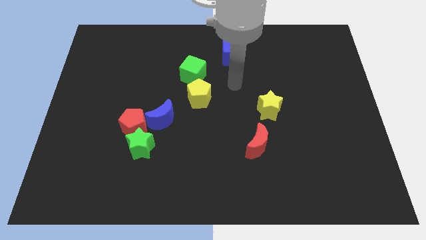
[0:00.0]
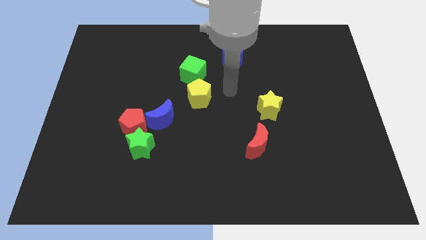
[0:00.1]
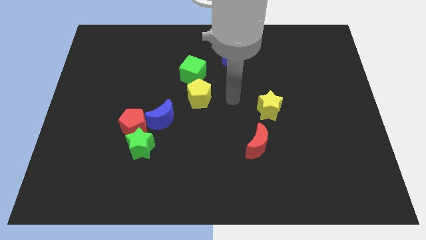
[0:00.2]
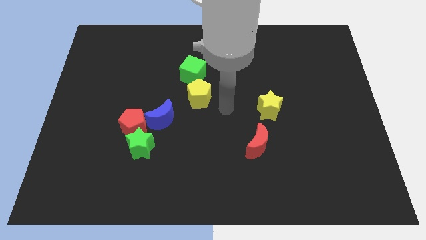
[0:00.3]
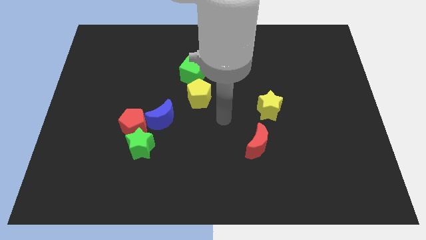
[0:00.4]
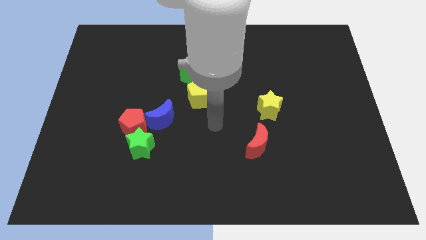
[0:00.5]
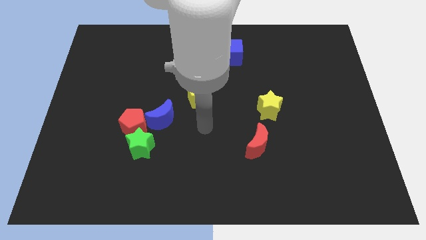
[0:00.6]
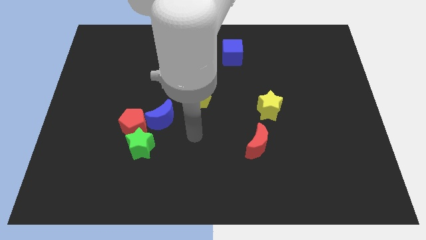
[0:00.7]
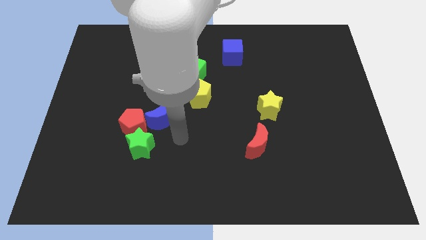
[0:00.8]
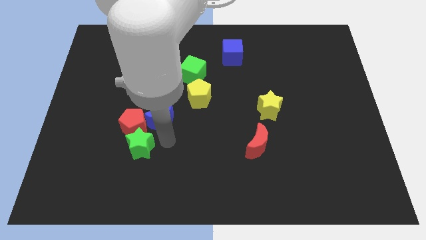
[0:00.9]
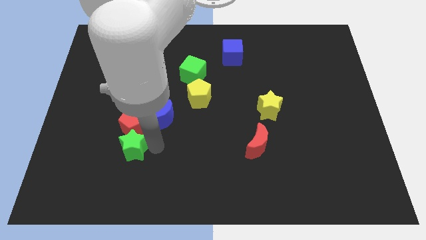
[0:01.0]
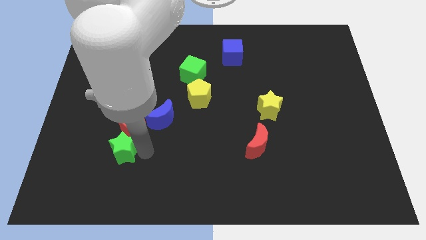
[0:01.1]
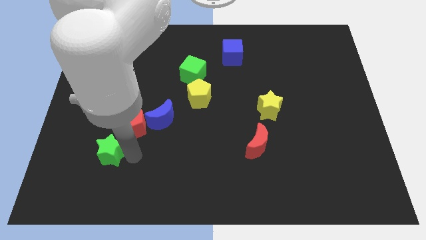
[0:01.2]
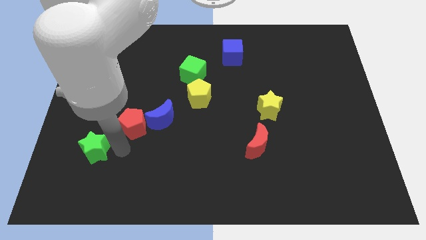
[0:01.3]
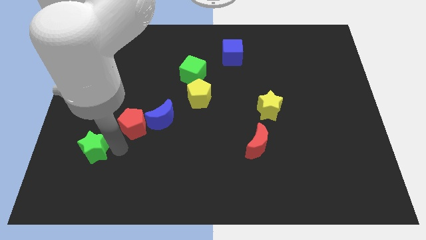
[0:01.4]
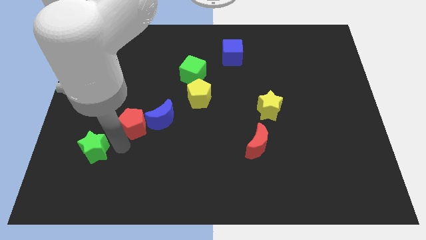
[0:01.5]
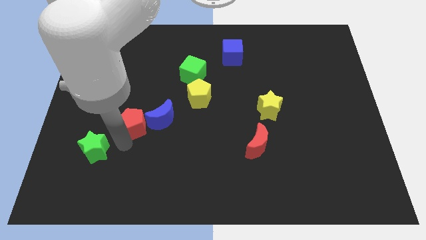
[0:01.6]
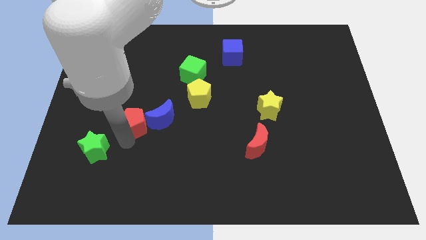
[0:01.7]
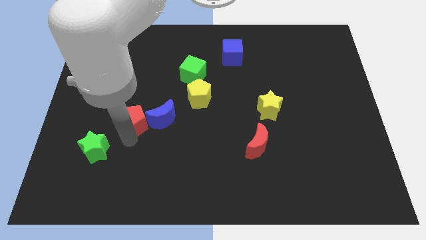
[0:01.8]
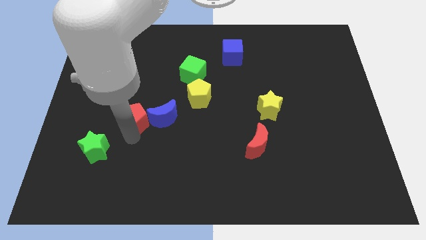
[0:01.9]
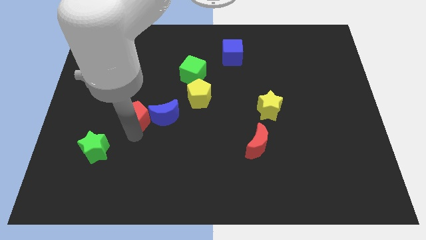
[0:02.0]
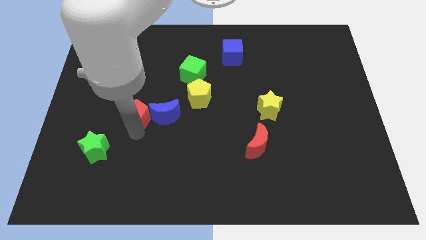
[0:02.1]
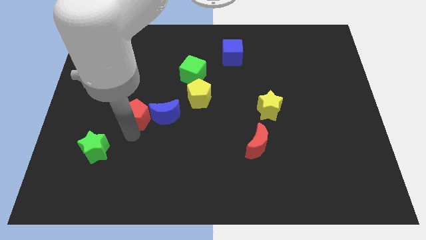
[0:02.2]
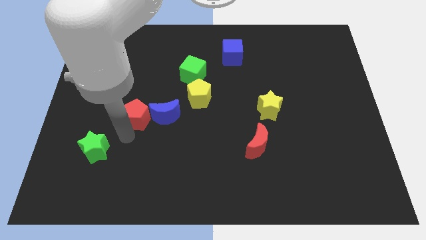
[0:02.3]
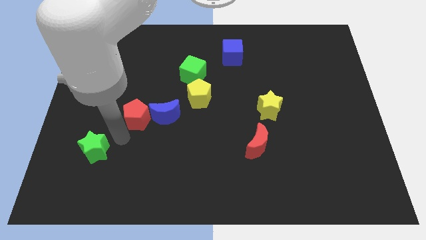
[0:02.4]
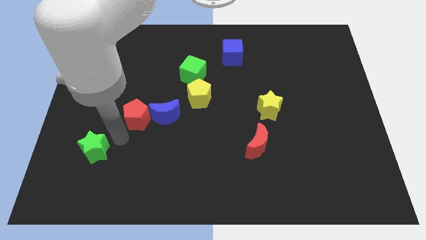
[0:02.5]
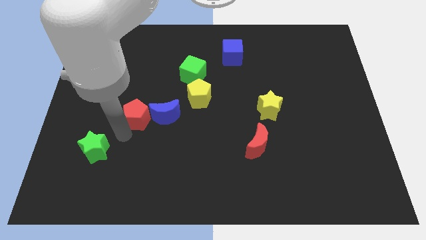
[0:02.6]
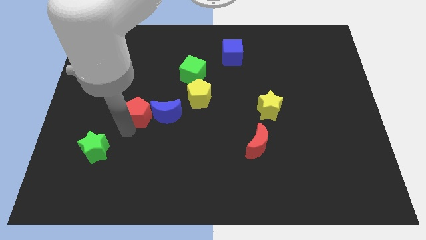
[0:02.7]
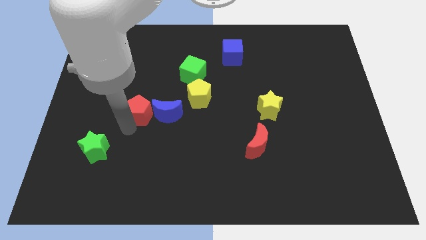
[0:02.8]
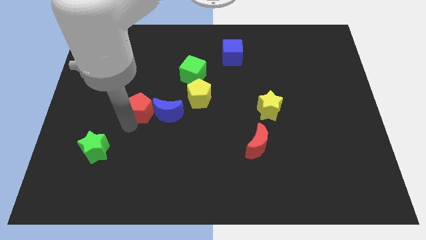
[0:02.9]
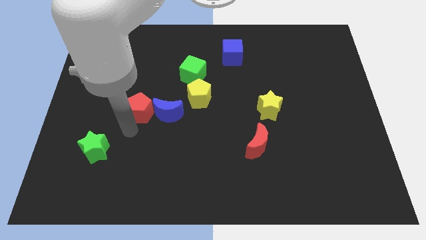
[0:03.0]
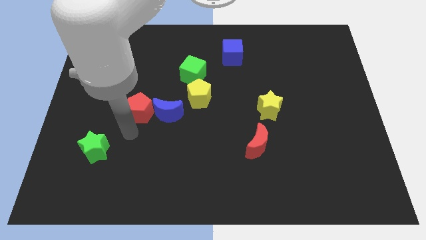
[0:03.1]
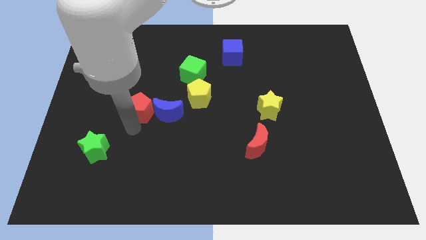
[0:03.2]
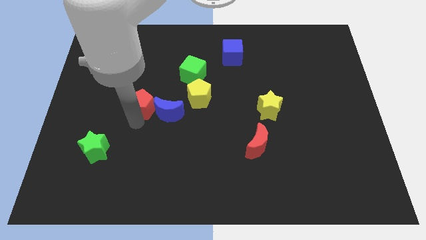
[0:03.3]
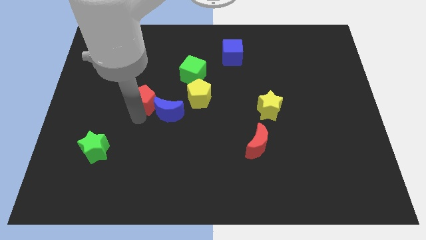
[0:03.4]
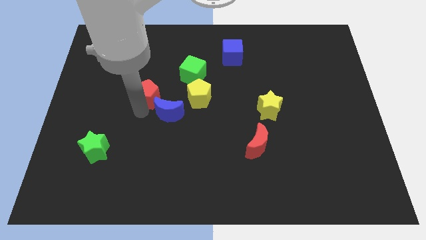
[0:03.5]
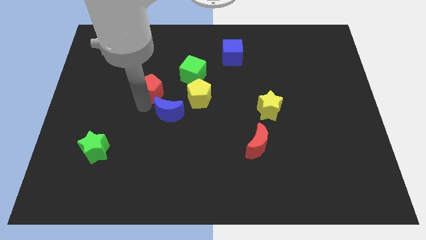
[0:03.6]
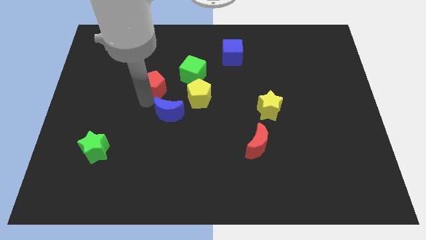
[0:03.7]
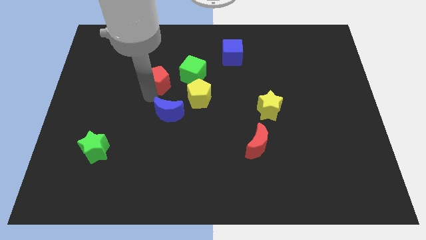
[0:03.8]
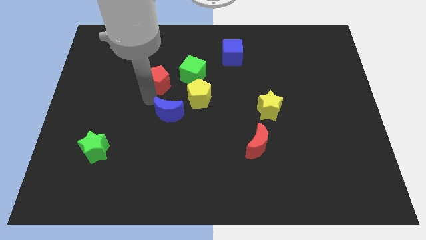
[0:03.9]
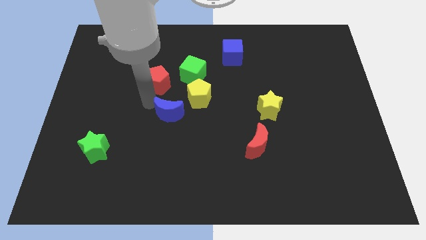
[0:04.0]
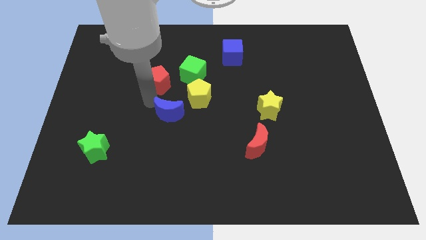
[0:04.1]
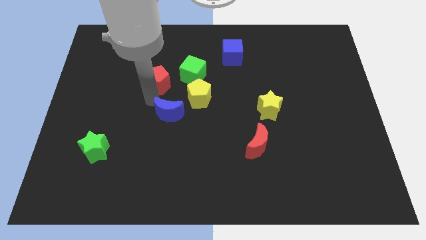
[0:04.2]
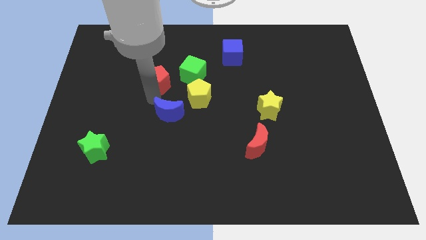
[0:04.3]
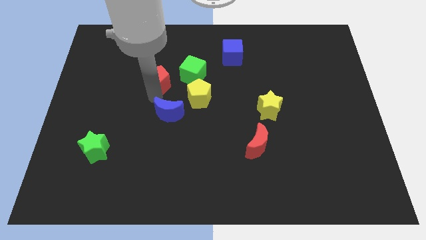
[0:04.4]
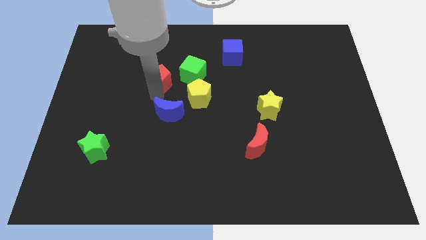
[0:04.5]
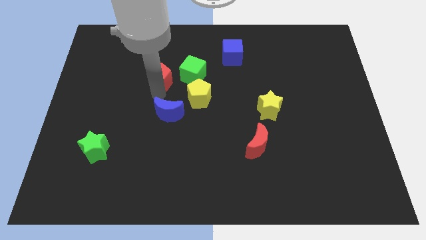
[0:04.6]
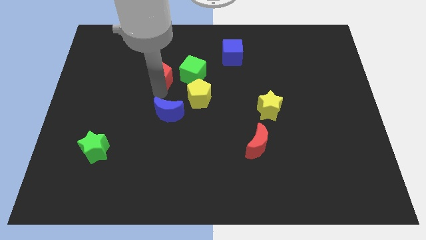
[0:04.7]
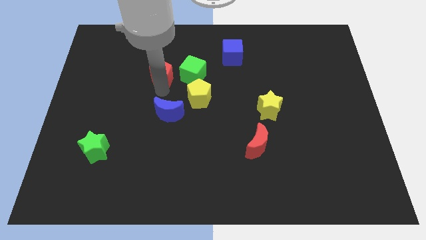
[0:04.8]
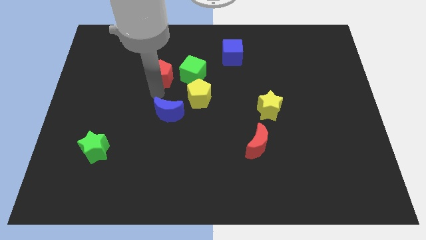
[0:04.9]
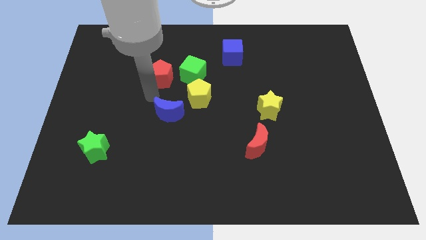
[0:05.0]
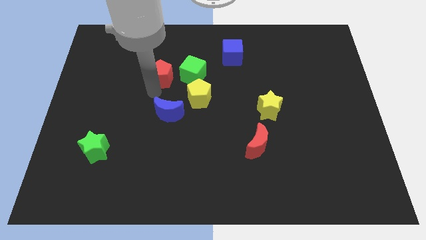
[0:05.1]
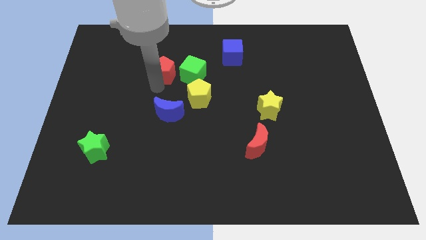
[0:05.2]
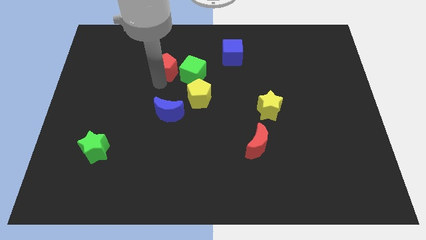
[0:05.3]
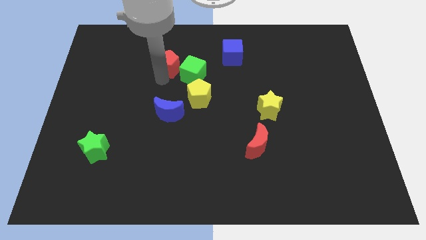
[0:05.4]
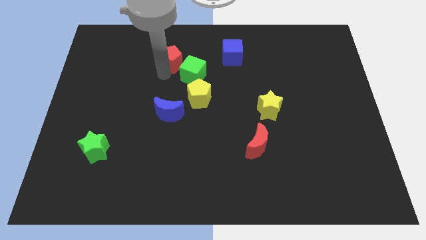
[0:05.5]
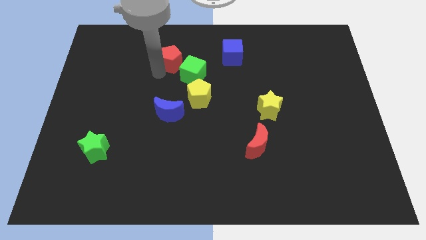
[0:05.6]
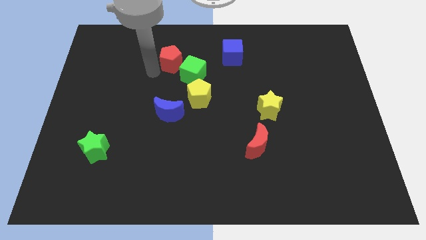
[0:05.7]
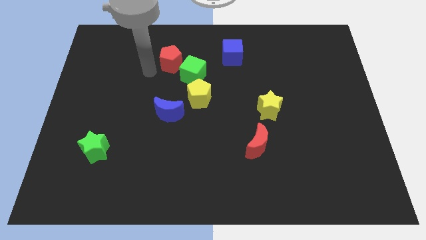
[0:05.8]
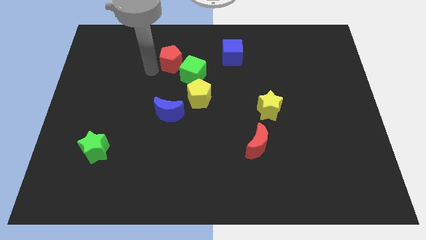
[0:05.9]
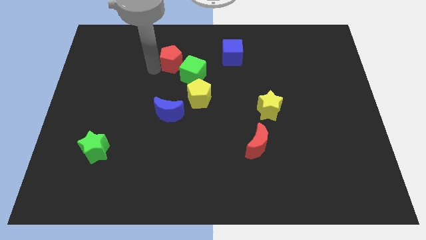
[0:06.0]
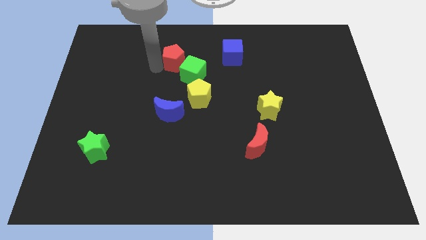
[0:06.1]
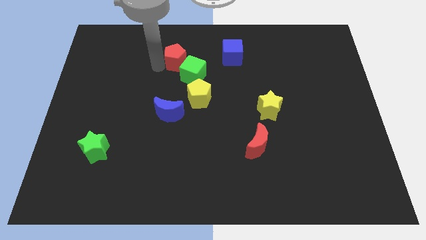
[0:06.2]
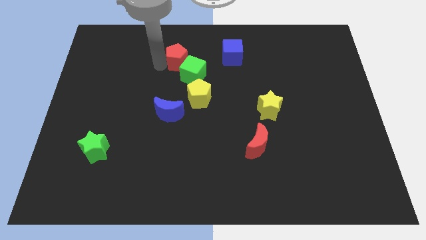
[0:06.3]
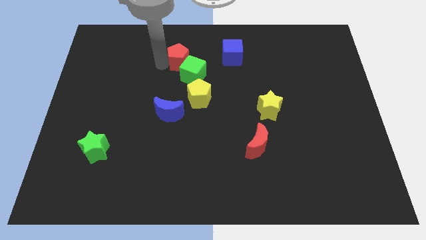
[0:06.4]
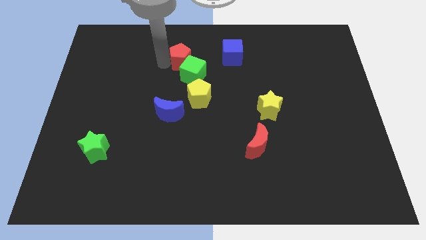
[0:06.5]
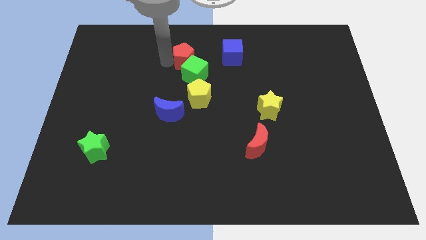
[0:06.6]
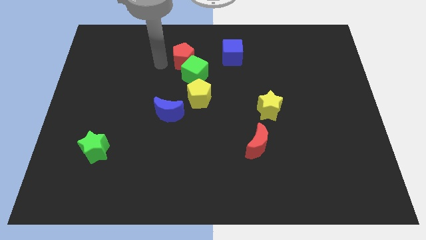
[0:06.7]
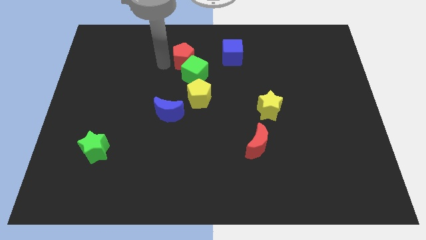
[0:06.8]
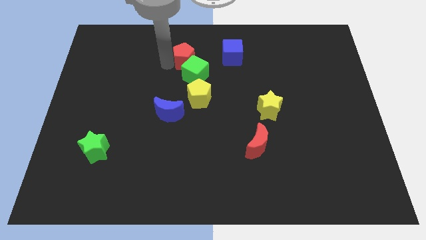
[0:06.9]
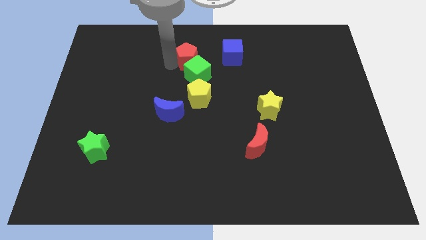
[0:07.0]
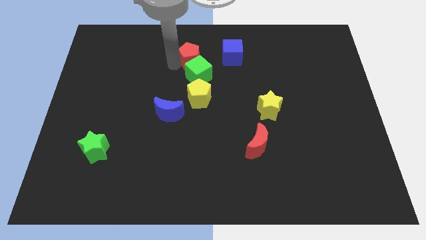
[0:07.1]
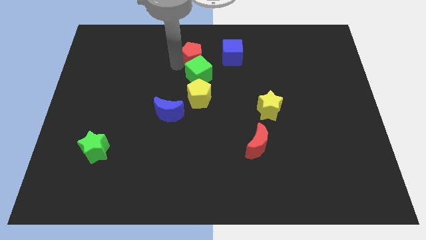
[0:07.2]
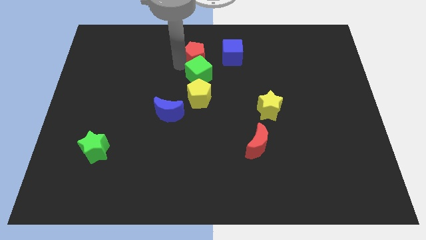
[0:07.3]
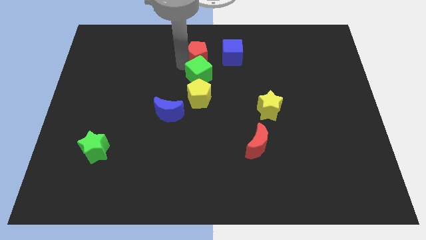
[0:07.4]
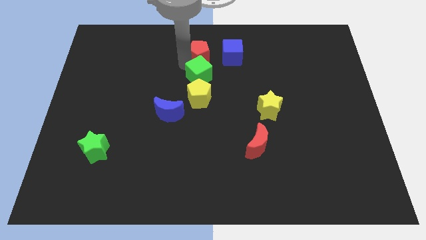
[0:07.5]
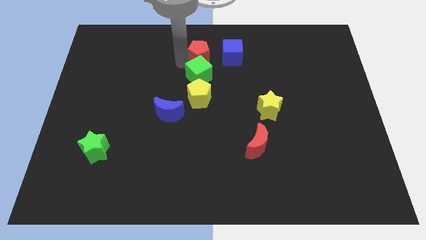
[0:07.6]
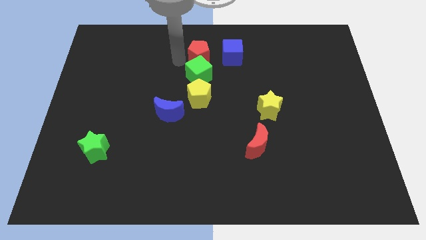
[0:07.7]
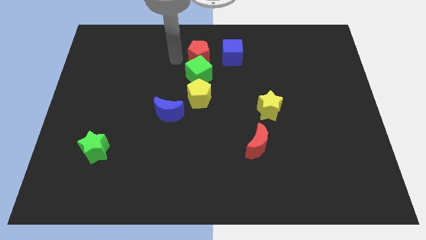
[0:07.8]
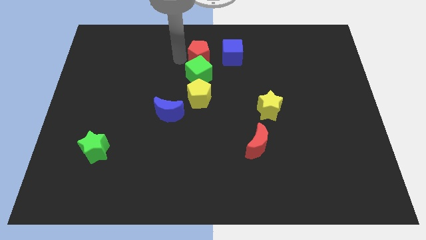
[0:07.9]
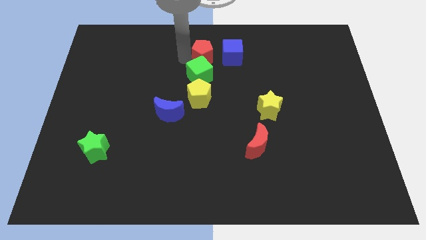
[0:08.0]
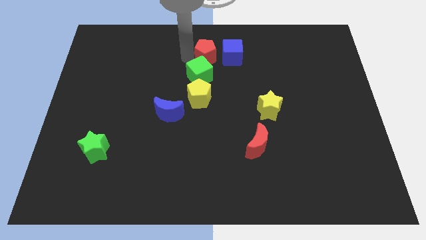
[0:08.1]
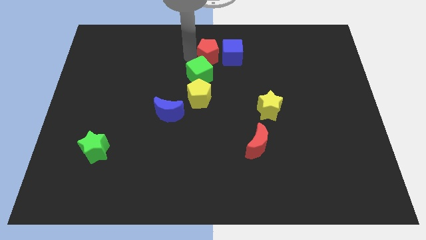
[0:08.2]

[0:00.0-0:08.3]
push the red pentagon next to the blue cube
